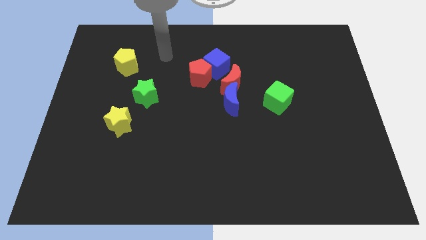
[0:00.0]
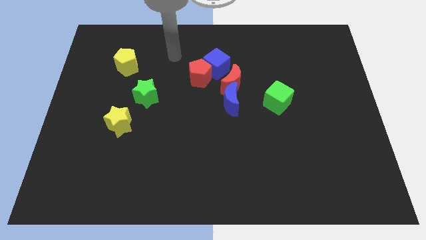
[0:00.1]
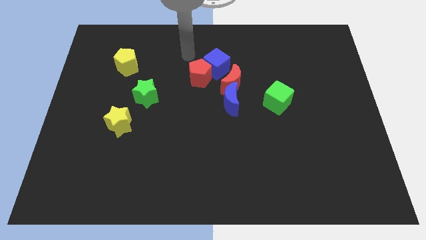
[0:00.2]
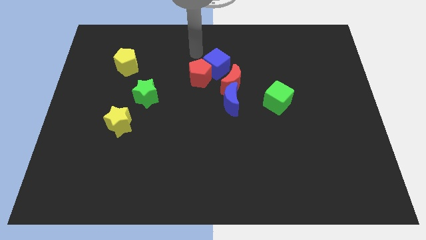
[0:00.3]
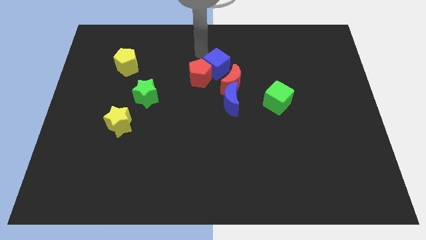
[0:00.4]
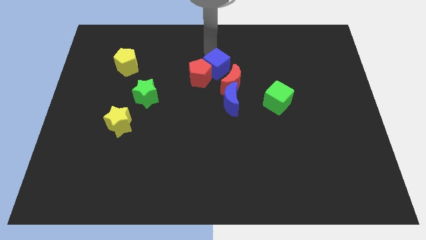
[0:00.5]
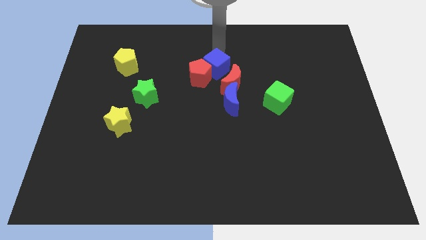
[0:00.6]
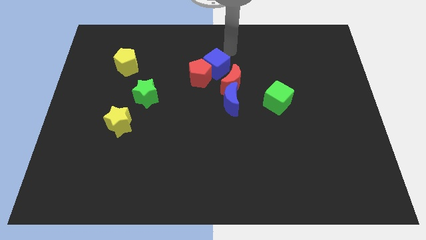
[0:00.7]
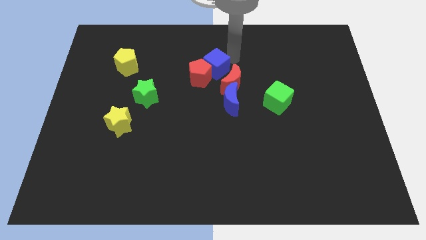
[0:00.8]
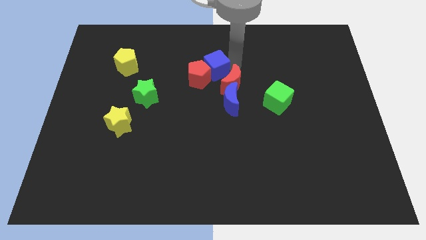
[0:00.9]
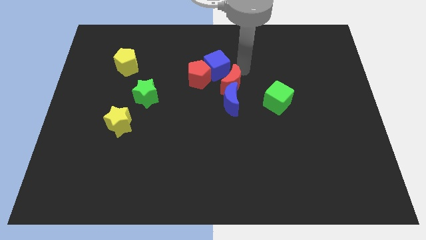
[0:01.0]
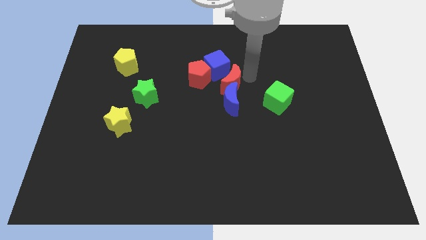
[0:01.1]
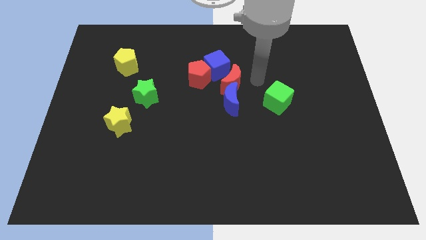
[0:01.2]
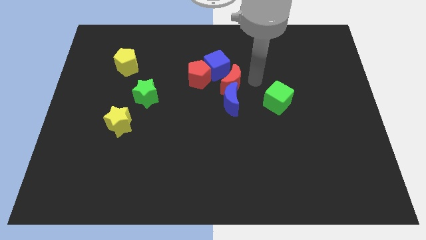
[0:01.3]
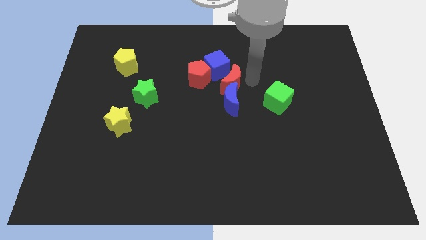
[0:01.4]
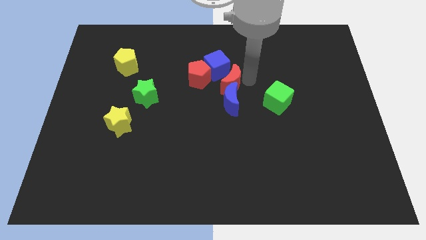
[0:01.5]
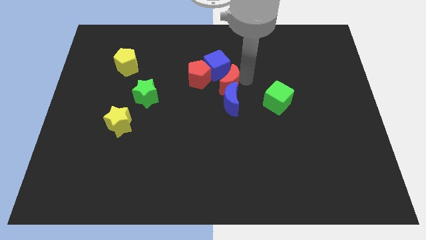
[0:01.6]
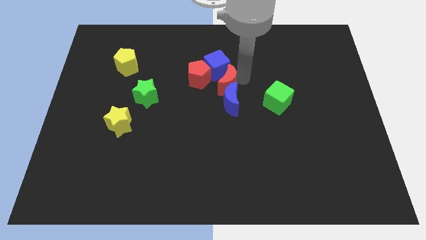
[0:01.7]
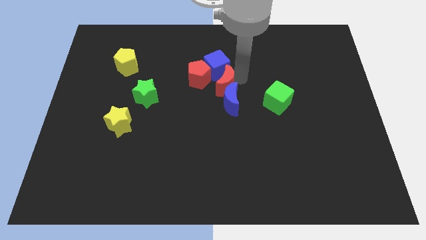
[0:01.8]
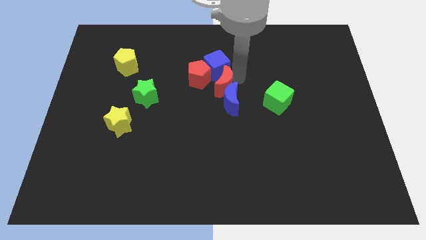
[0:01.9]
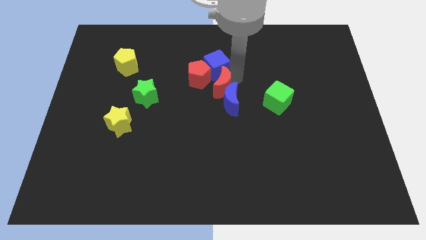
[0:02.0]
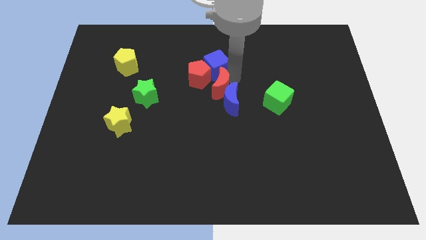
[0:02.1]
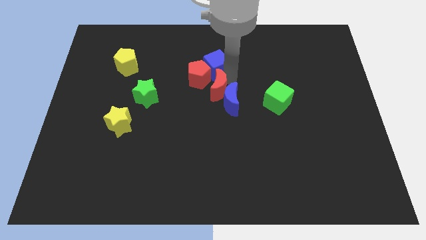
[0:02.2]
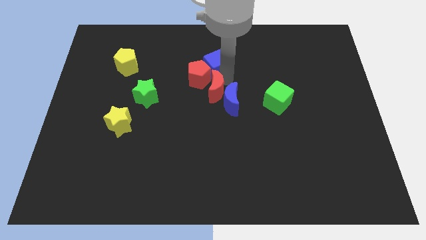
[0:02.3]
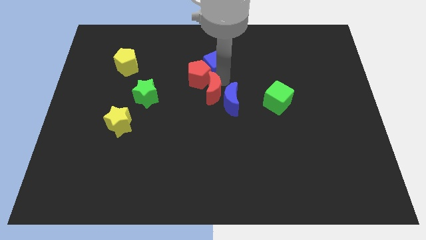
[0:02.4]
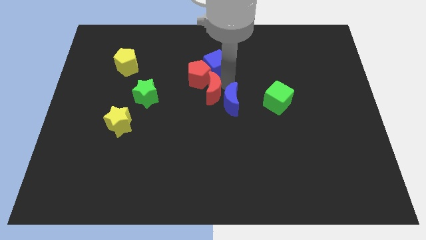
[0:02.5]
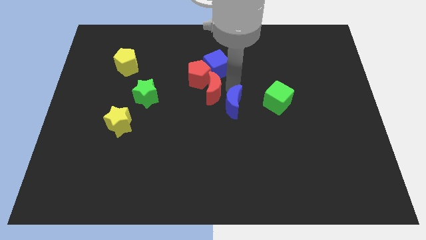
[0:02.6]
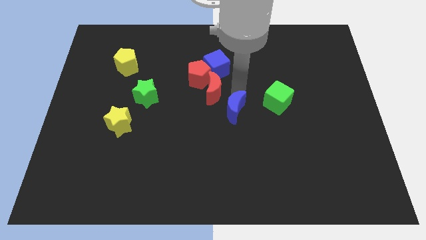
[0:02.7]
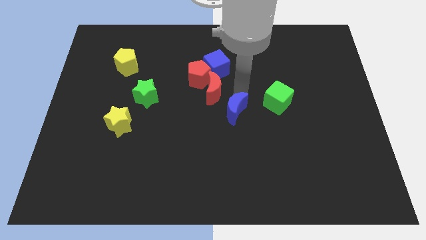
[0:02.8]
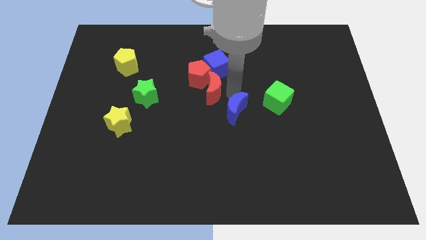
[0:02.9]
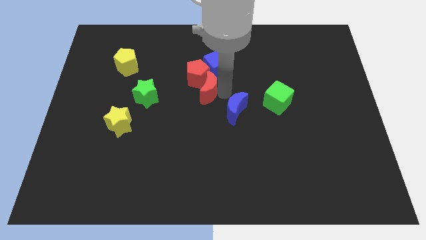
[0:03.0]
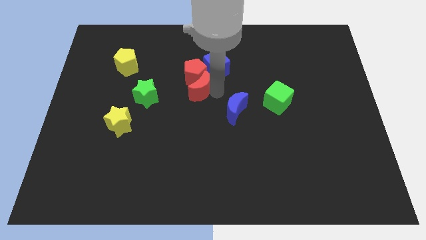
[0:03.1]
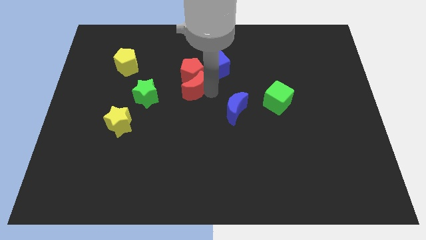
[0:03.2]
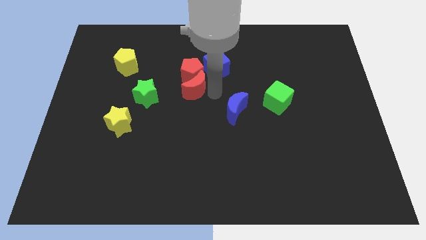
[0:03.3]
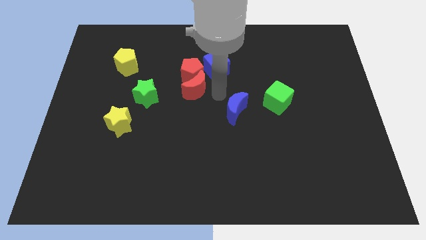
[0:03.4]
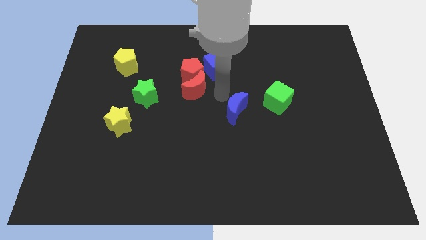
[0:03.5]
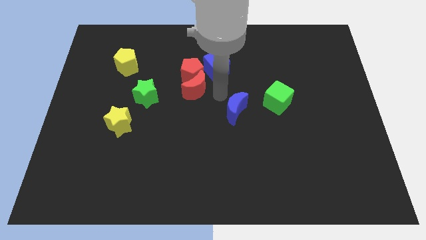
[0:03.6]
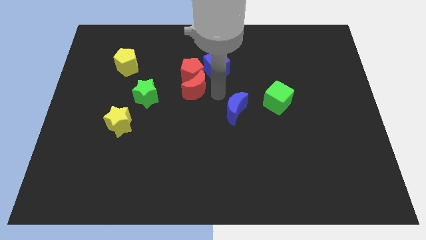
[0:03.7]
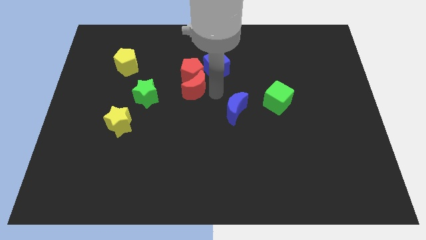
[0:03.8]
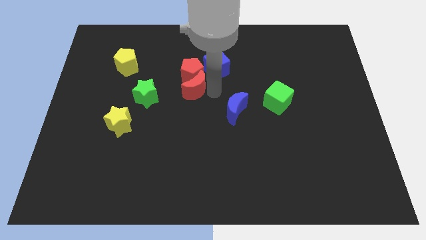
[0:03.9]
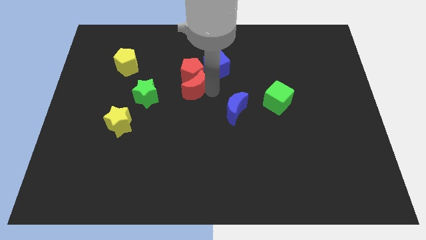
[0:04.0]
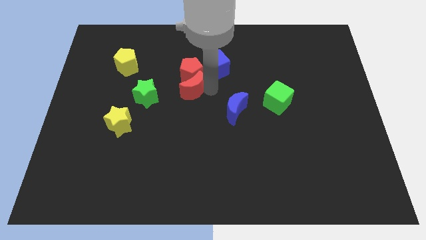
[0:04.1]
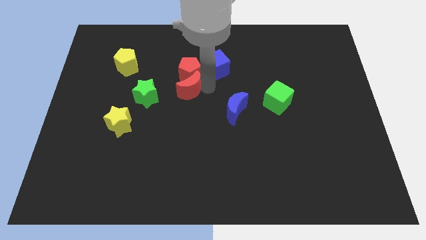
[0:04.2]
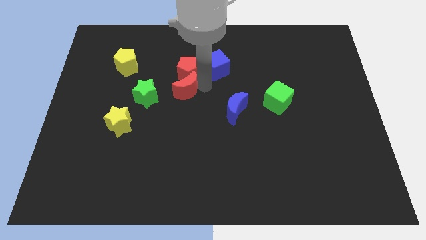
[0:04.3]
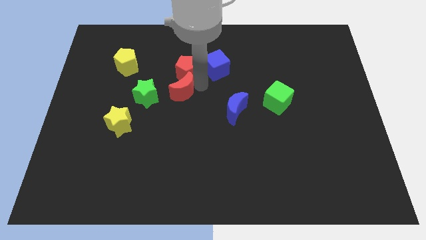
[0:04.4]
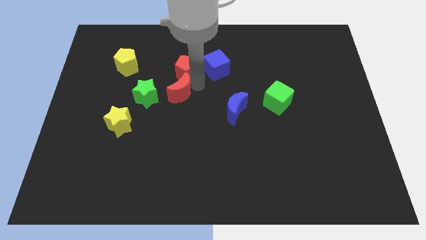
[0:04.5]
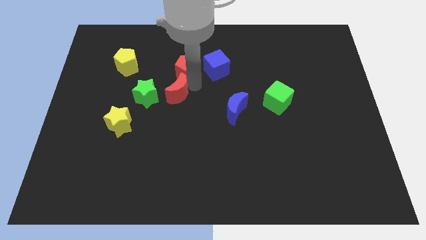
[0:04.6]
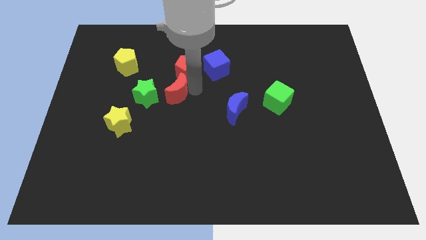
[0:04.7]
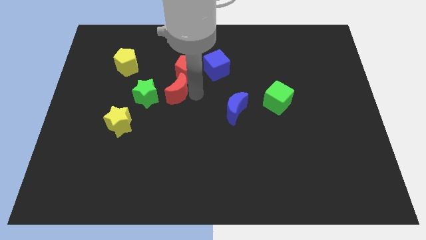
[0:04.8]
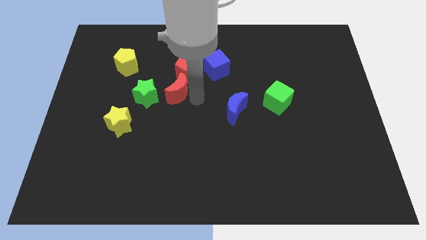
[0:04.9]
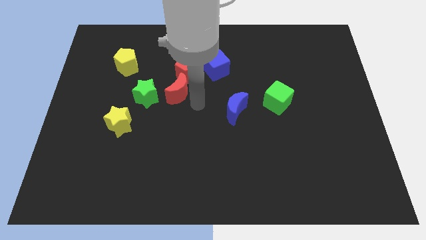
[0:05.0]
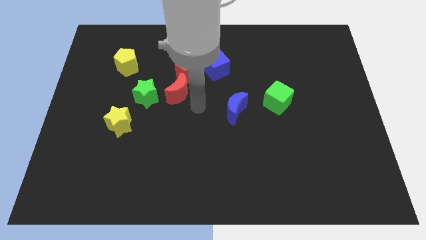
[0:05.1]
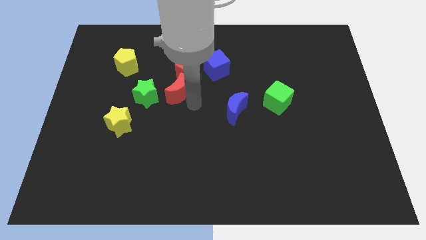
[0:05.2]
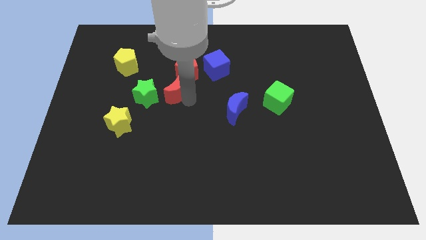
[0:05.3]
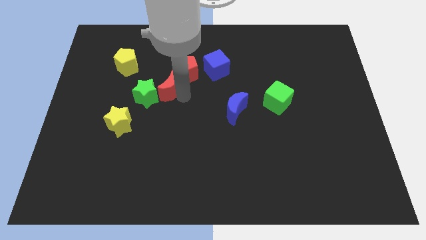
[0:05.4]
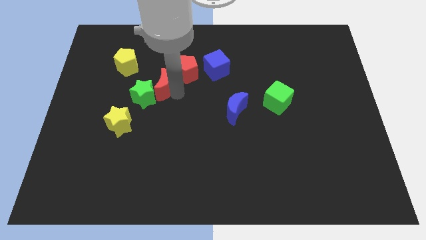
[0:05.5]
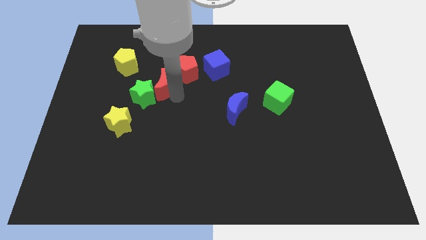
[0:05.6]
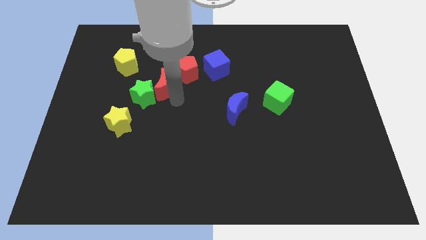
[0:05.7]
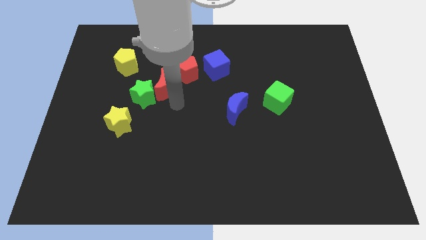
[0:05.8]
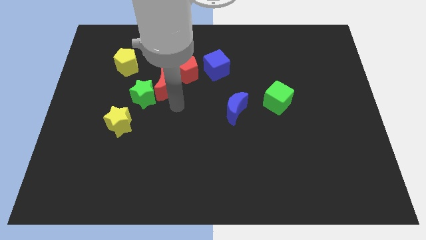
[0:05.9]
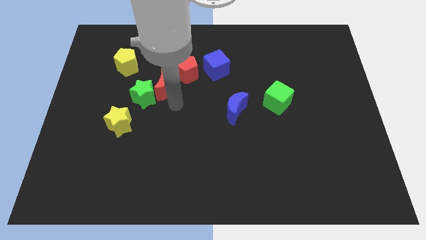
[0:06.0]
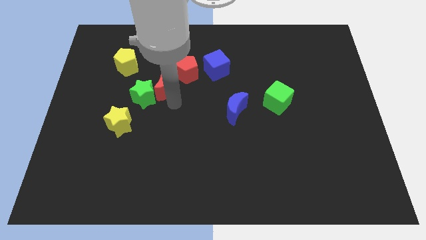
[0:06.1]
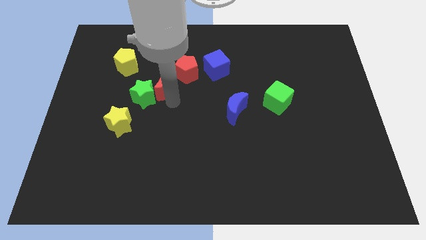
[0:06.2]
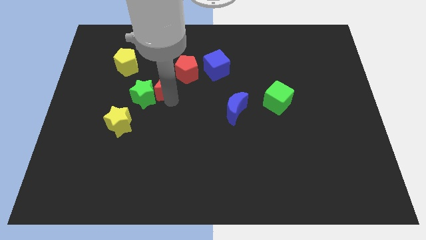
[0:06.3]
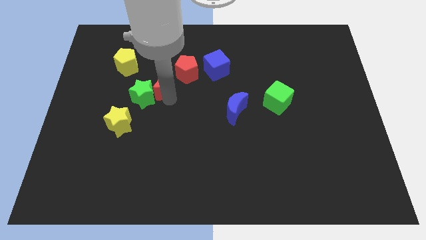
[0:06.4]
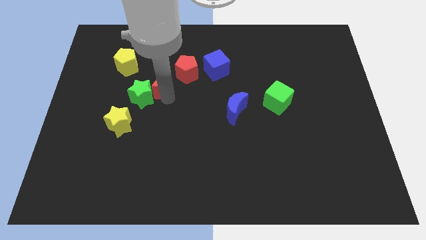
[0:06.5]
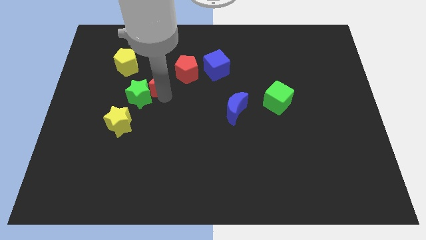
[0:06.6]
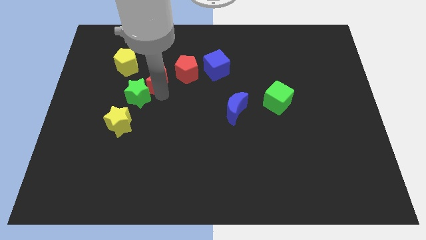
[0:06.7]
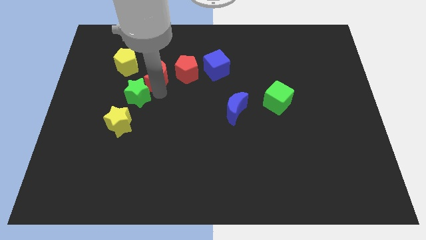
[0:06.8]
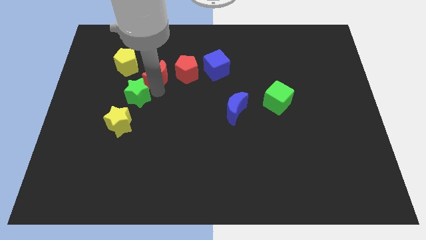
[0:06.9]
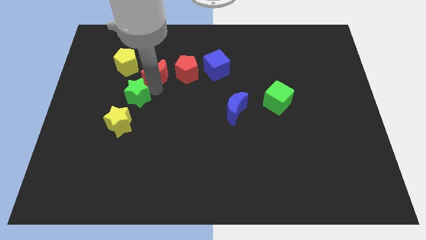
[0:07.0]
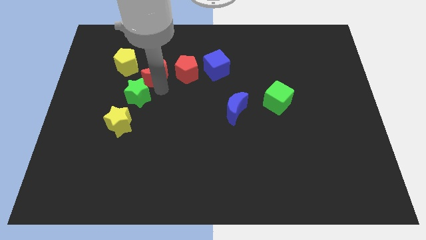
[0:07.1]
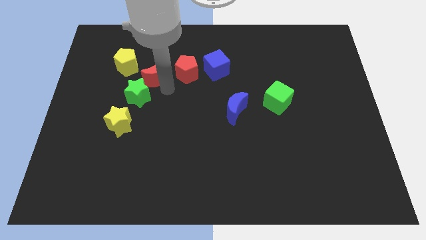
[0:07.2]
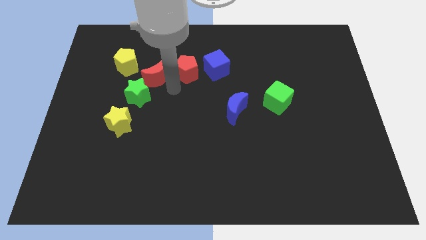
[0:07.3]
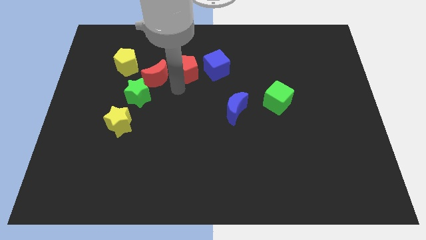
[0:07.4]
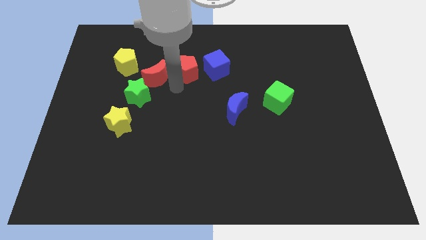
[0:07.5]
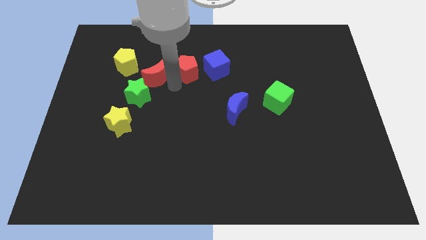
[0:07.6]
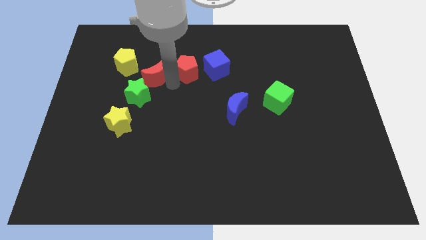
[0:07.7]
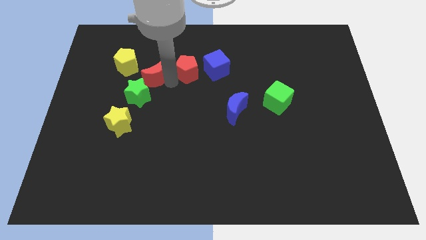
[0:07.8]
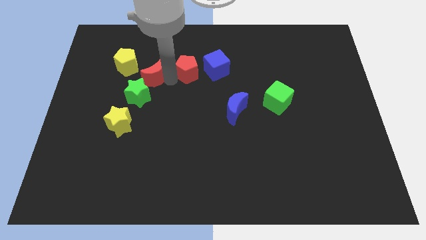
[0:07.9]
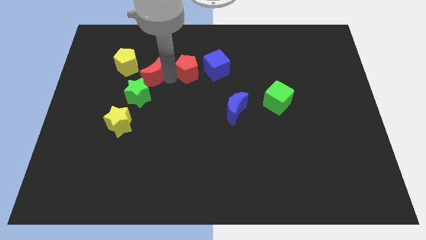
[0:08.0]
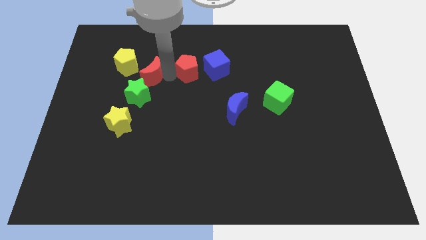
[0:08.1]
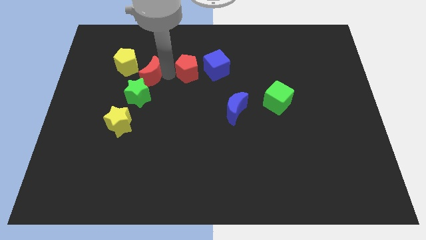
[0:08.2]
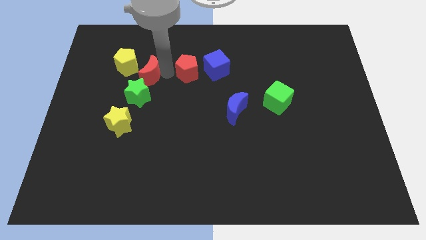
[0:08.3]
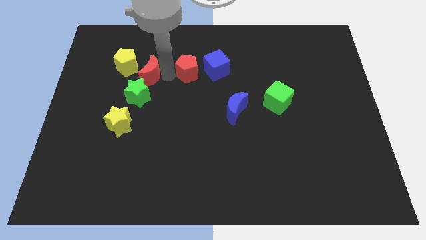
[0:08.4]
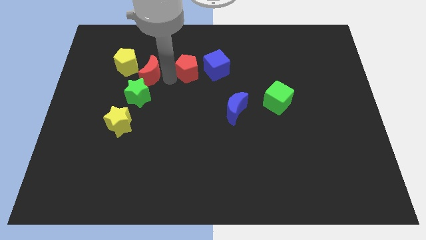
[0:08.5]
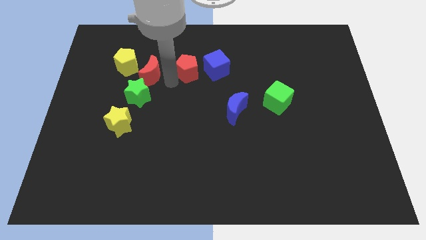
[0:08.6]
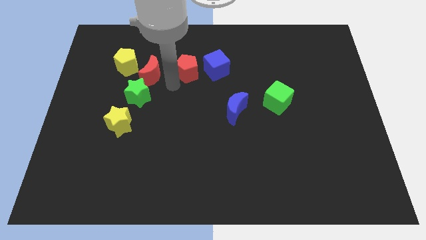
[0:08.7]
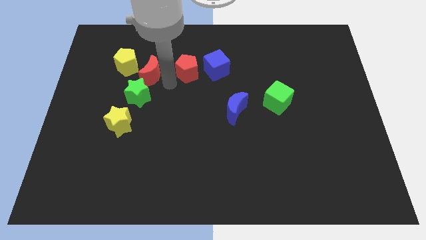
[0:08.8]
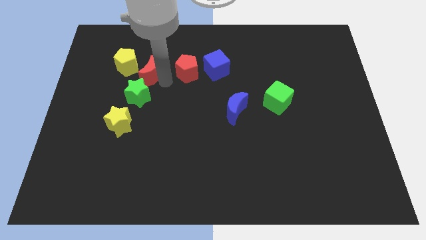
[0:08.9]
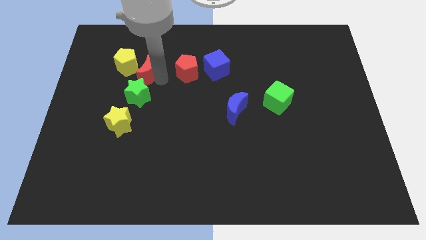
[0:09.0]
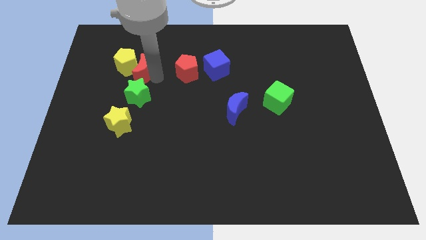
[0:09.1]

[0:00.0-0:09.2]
move the red moon to the yellow pentagon
